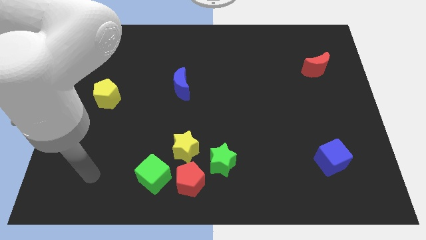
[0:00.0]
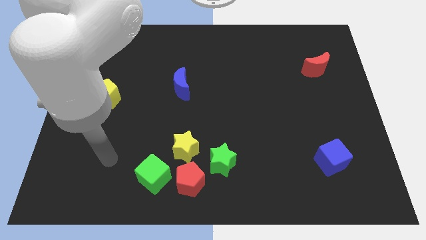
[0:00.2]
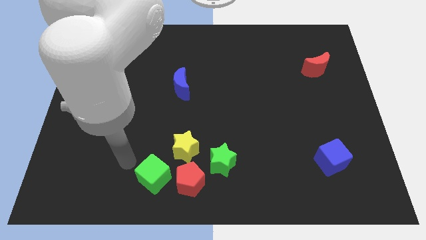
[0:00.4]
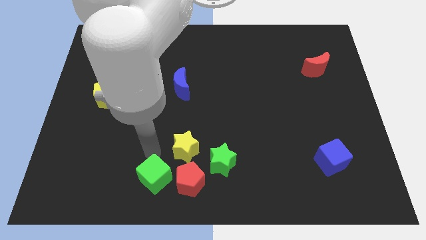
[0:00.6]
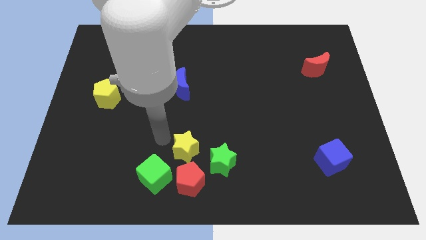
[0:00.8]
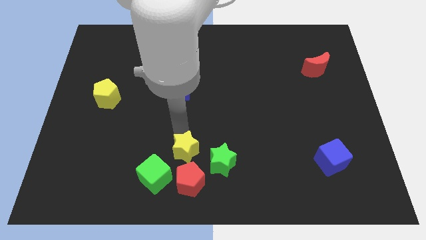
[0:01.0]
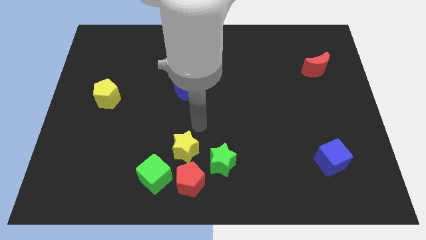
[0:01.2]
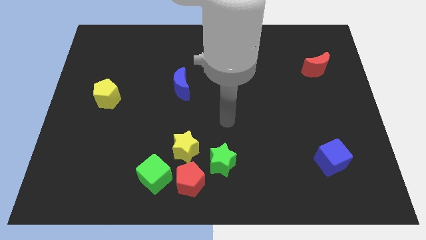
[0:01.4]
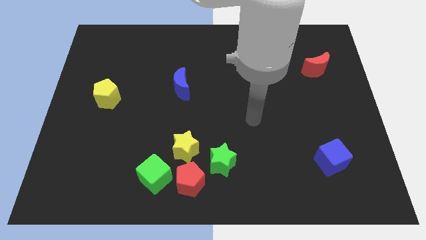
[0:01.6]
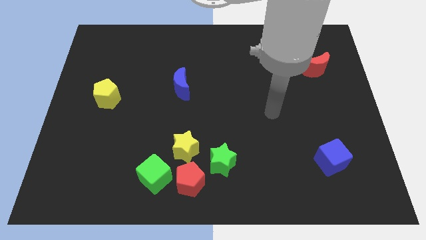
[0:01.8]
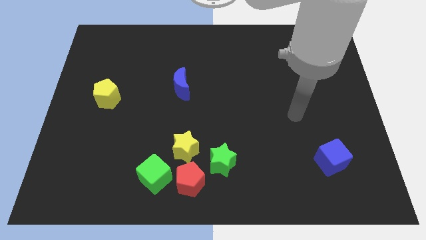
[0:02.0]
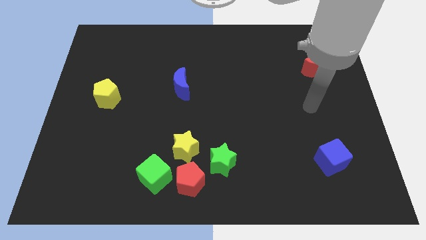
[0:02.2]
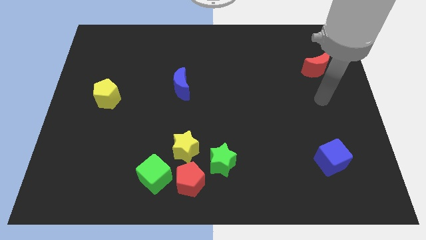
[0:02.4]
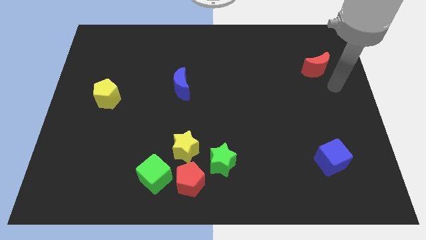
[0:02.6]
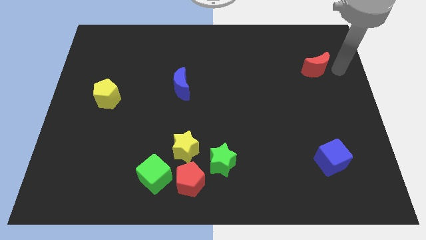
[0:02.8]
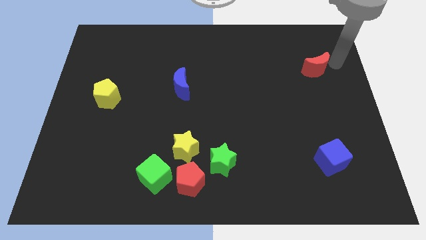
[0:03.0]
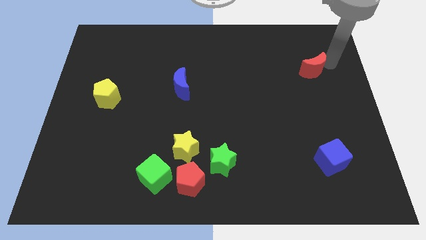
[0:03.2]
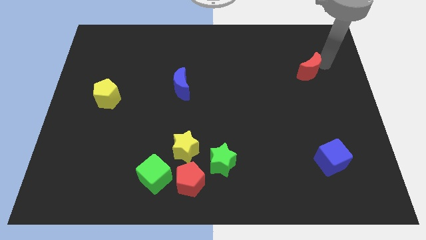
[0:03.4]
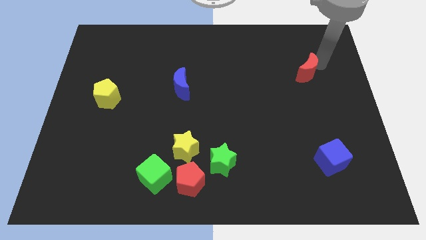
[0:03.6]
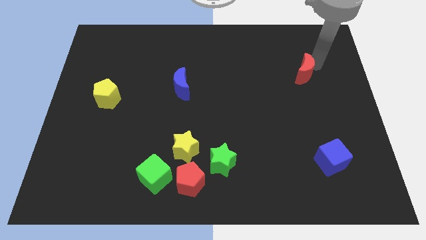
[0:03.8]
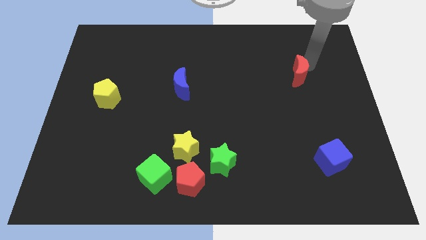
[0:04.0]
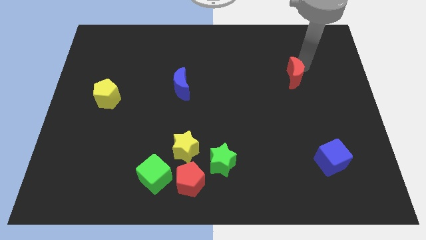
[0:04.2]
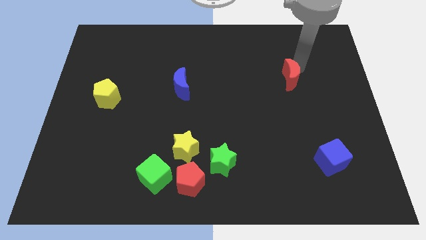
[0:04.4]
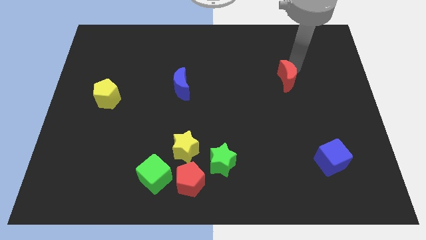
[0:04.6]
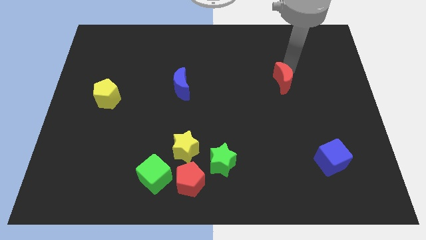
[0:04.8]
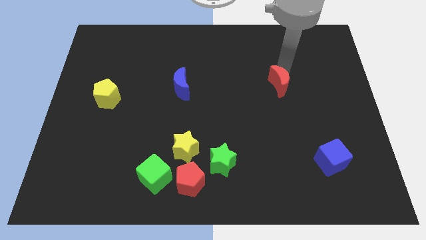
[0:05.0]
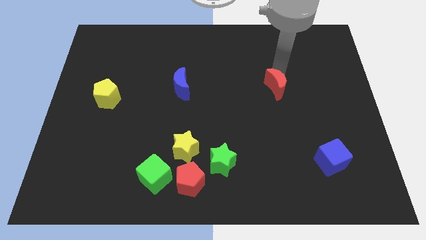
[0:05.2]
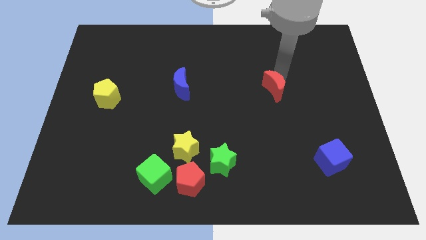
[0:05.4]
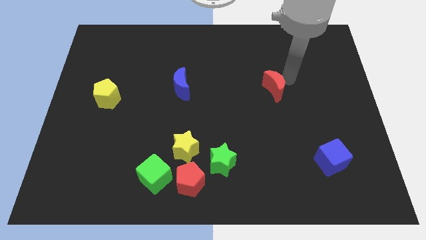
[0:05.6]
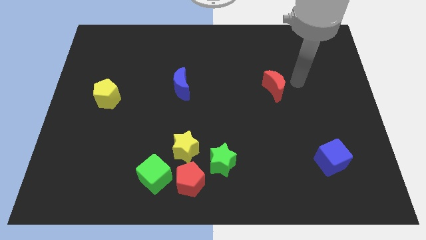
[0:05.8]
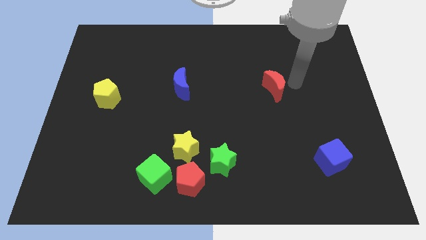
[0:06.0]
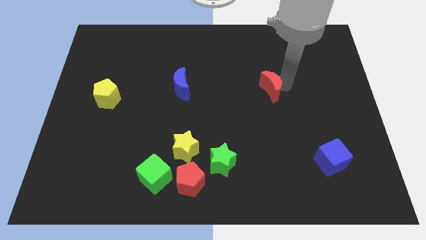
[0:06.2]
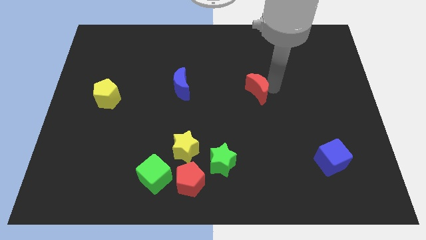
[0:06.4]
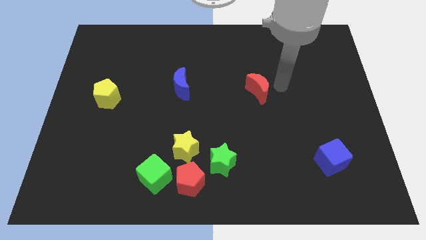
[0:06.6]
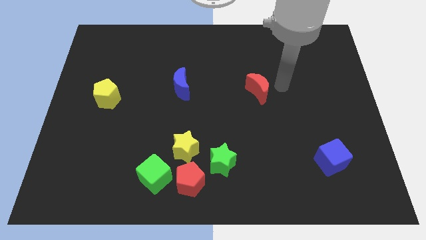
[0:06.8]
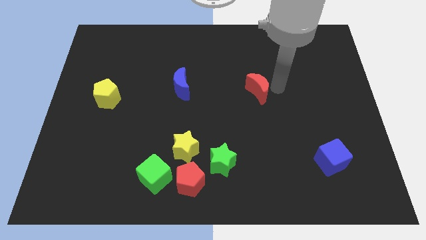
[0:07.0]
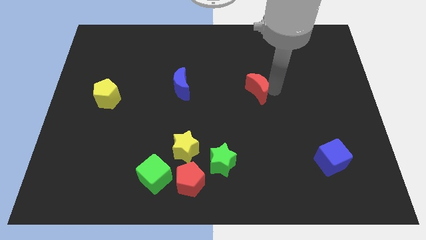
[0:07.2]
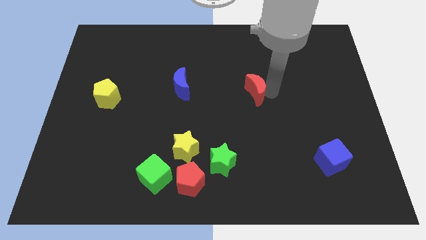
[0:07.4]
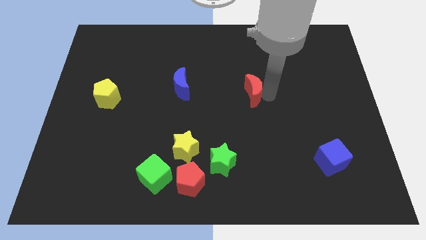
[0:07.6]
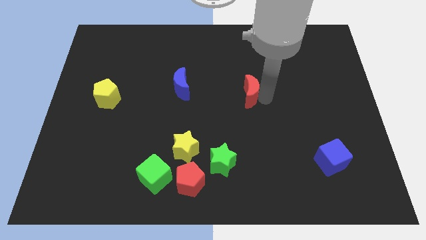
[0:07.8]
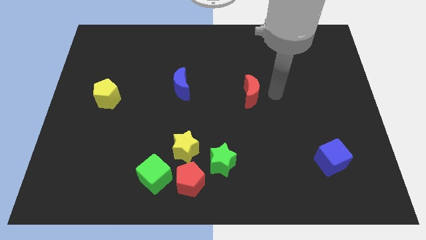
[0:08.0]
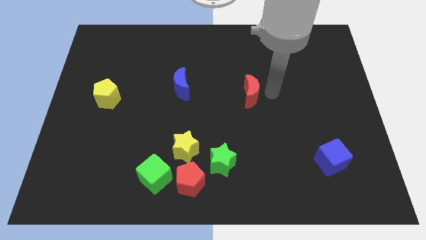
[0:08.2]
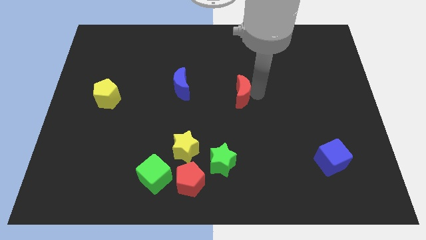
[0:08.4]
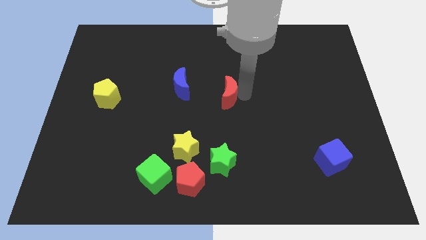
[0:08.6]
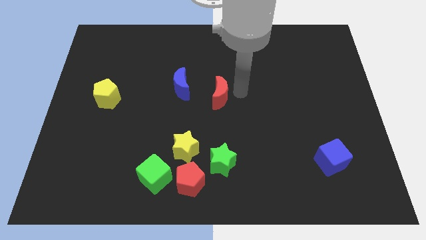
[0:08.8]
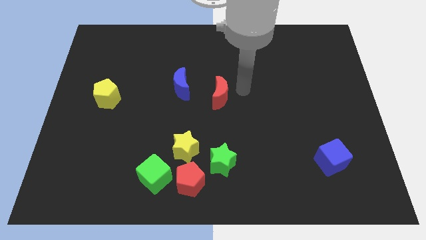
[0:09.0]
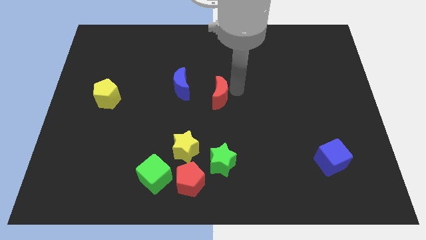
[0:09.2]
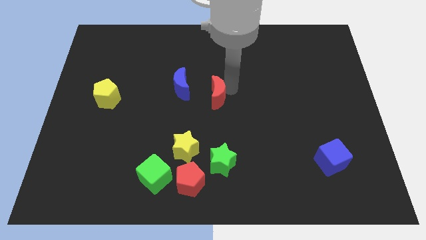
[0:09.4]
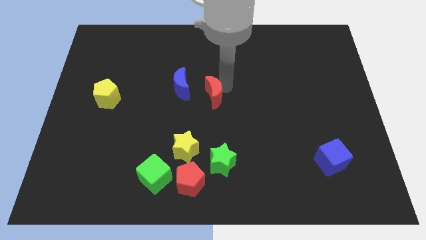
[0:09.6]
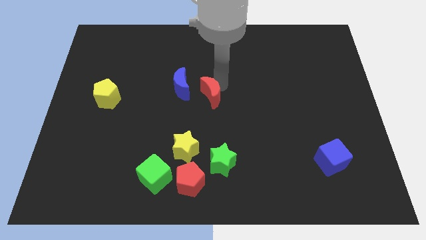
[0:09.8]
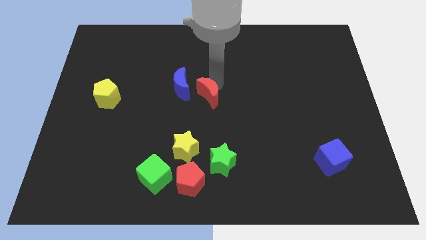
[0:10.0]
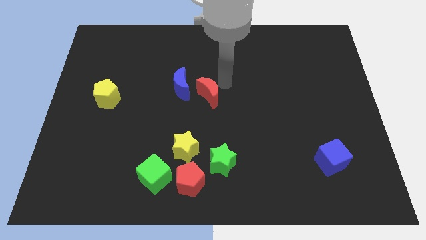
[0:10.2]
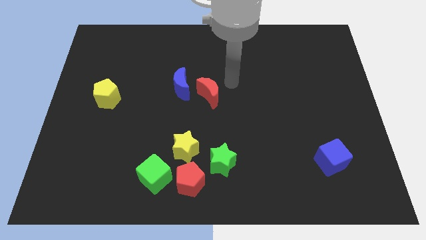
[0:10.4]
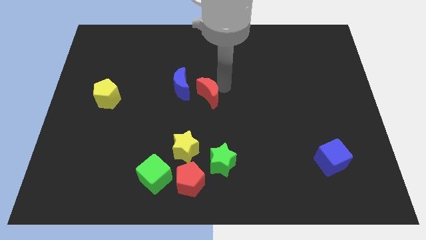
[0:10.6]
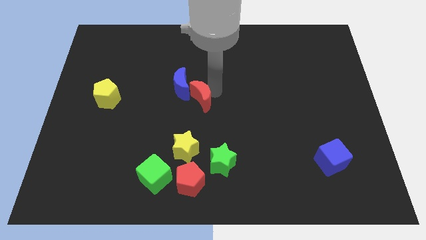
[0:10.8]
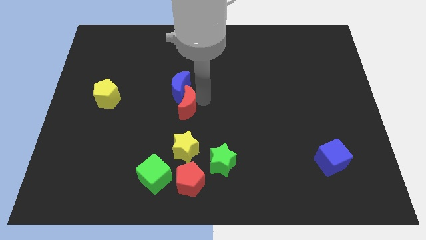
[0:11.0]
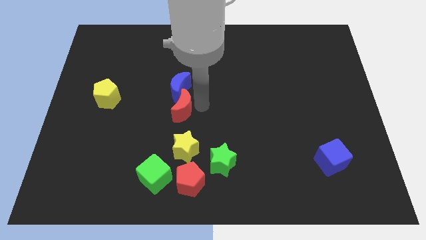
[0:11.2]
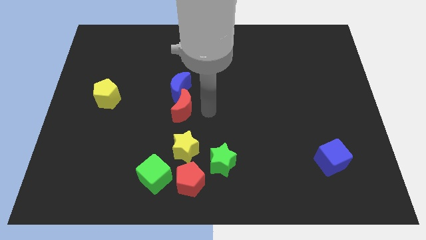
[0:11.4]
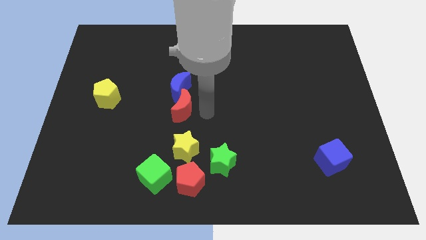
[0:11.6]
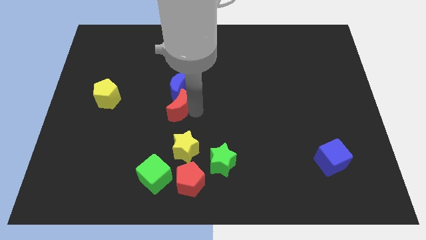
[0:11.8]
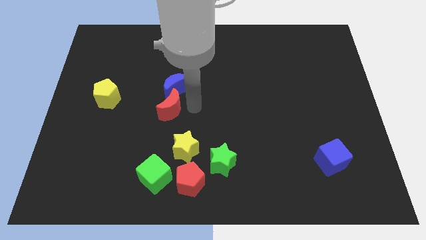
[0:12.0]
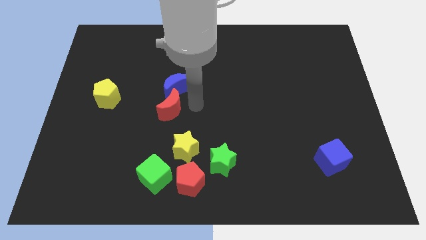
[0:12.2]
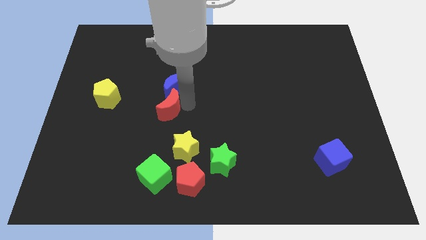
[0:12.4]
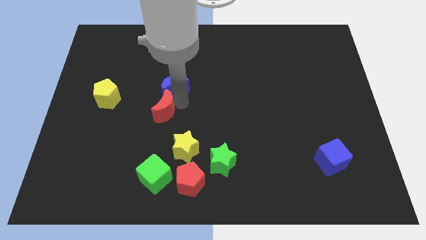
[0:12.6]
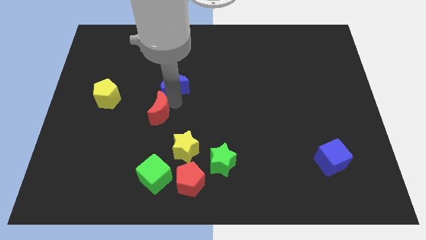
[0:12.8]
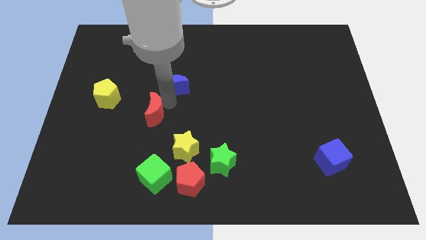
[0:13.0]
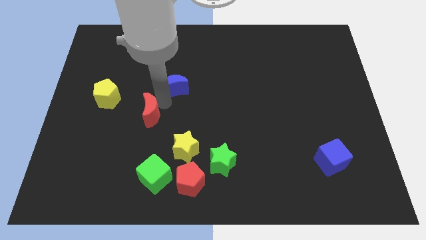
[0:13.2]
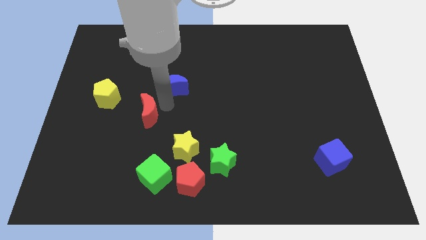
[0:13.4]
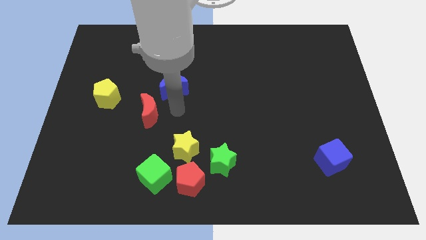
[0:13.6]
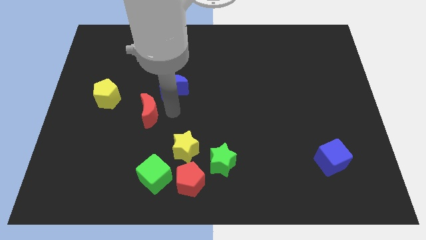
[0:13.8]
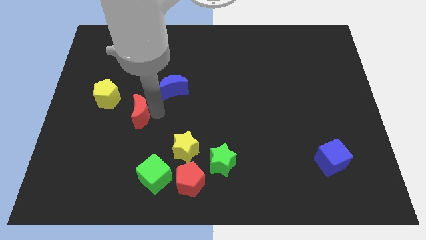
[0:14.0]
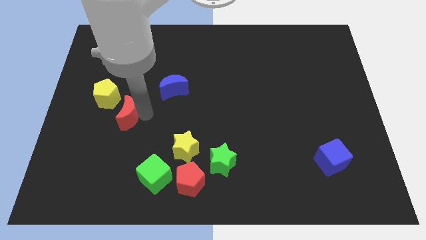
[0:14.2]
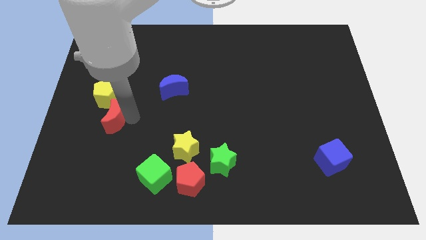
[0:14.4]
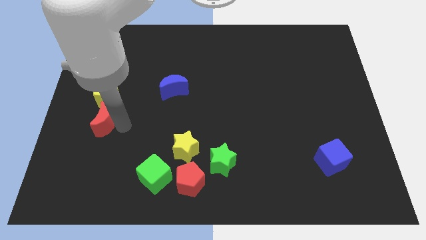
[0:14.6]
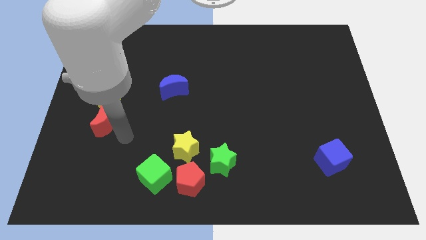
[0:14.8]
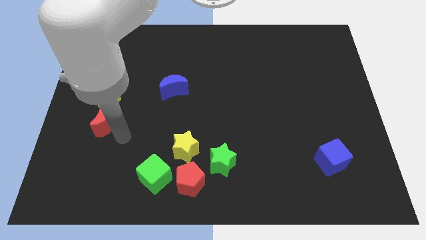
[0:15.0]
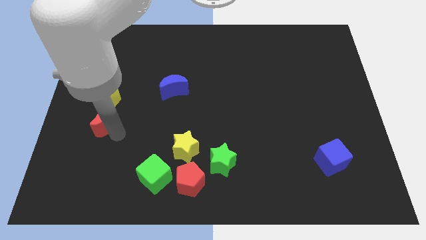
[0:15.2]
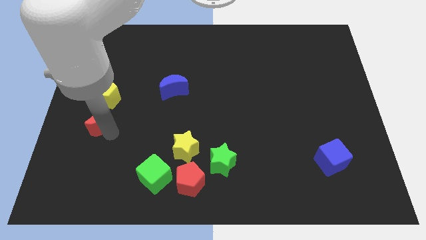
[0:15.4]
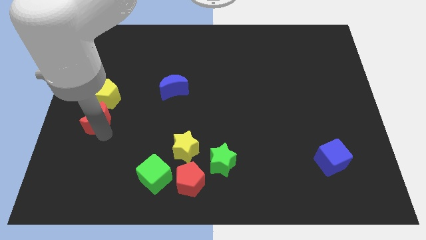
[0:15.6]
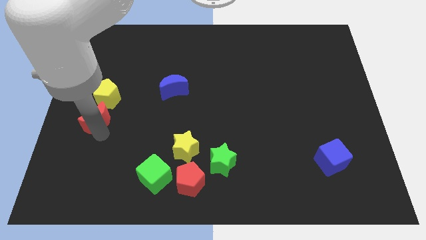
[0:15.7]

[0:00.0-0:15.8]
put the red moon to the center left
